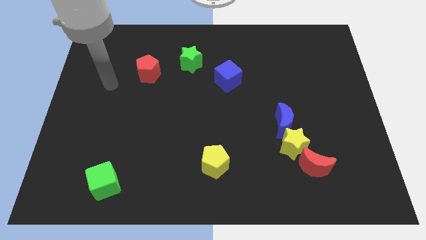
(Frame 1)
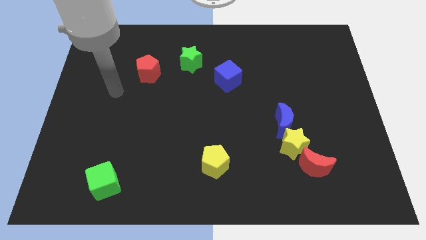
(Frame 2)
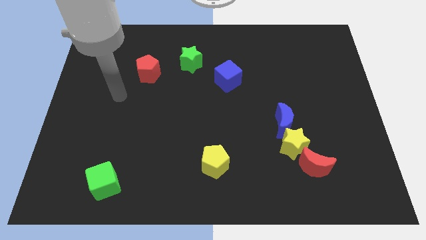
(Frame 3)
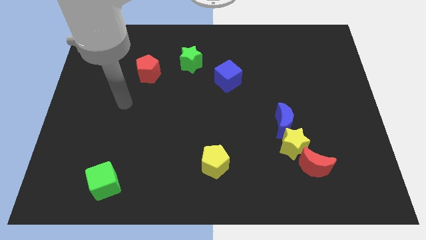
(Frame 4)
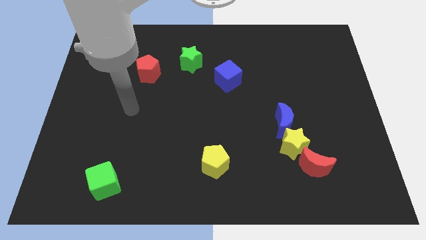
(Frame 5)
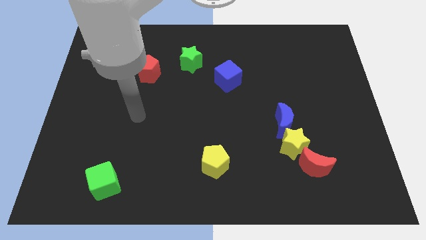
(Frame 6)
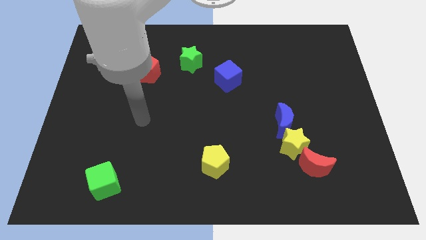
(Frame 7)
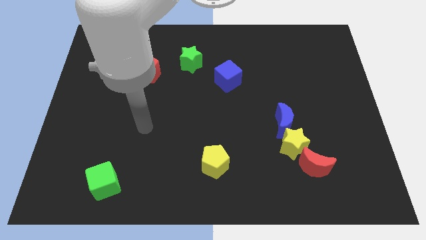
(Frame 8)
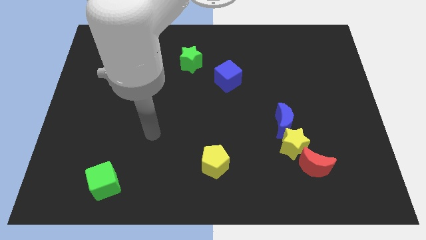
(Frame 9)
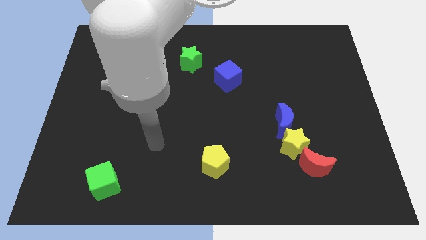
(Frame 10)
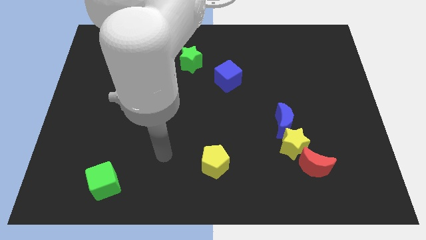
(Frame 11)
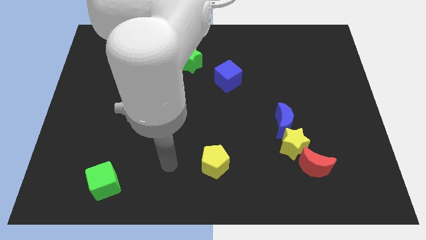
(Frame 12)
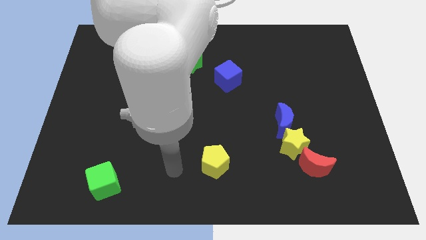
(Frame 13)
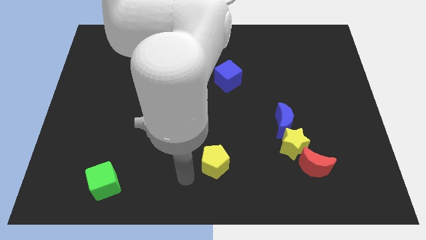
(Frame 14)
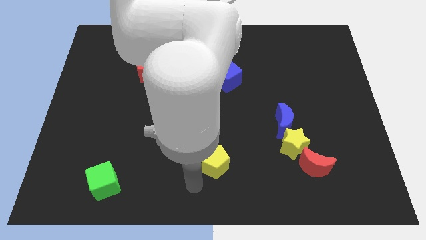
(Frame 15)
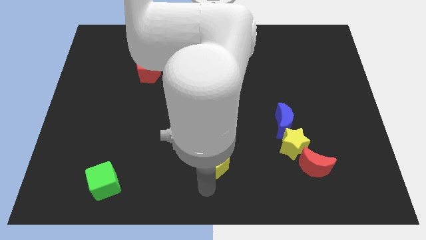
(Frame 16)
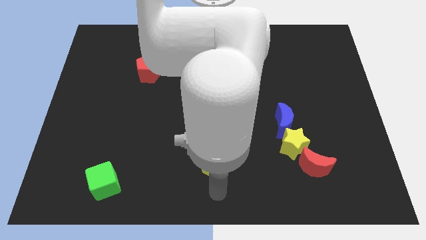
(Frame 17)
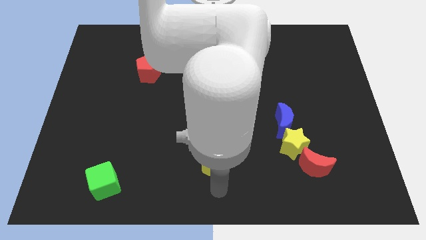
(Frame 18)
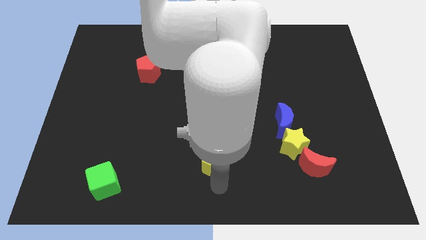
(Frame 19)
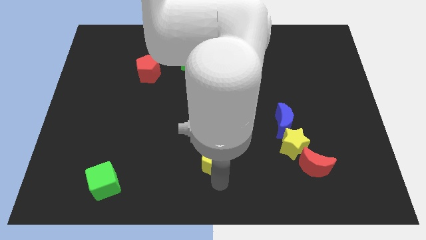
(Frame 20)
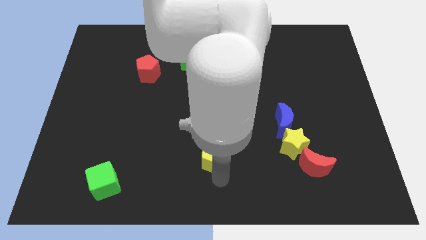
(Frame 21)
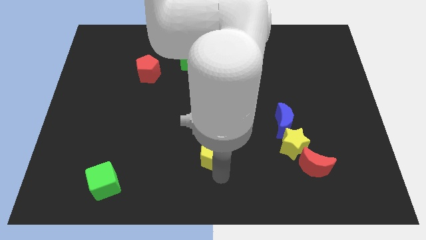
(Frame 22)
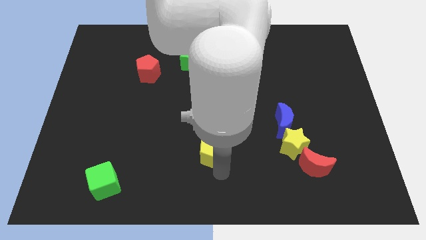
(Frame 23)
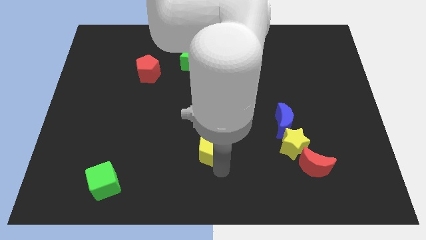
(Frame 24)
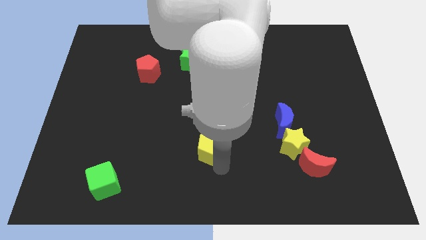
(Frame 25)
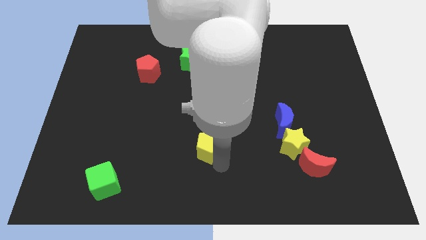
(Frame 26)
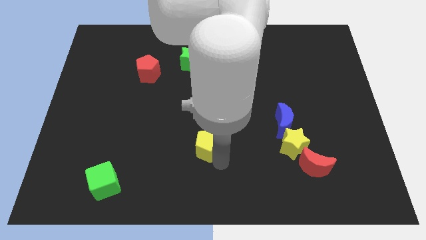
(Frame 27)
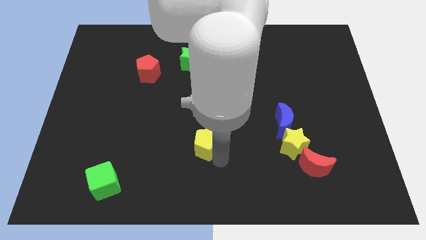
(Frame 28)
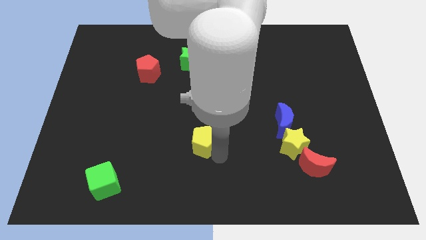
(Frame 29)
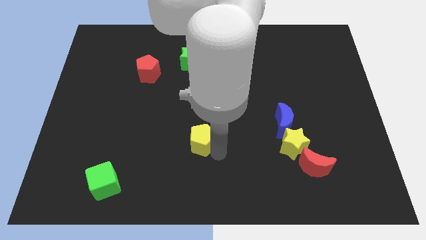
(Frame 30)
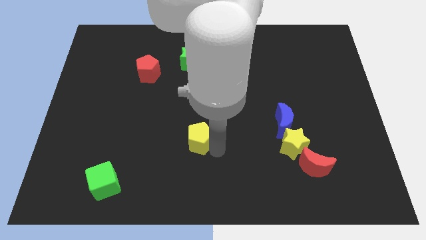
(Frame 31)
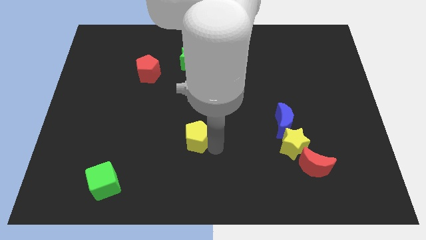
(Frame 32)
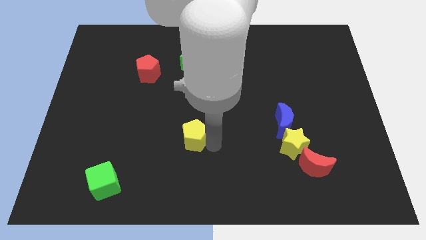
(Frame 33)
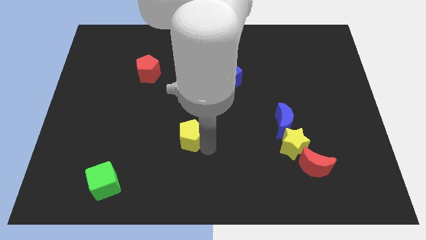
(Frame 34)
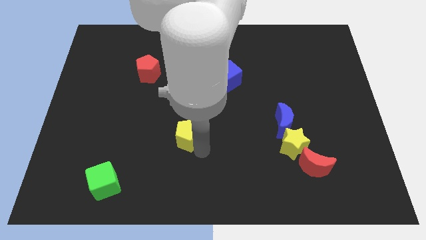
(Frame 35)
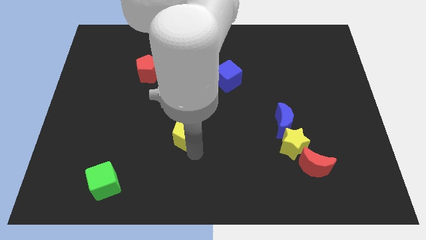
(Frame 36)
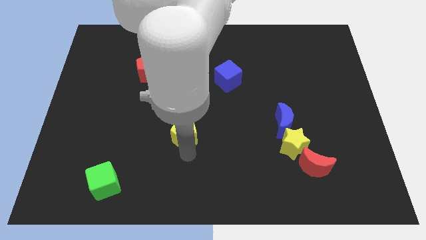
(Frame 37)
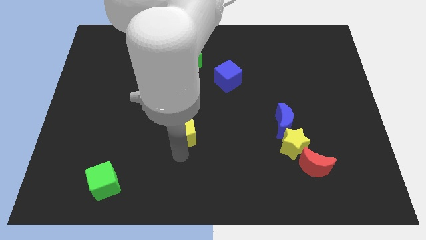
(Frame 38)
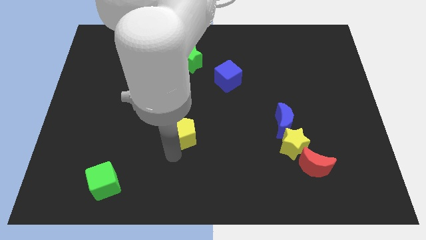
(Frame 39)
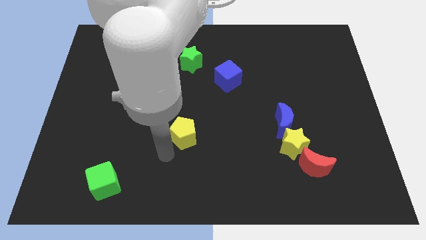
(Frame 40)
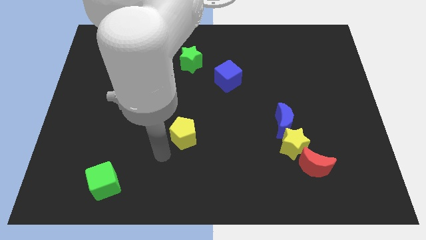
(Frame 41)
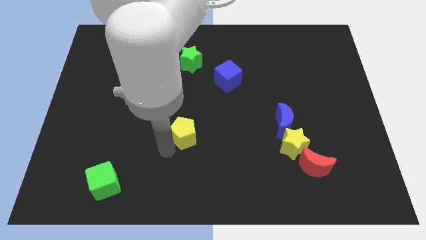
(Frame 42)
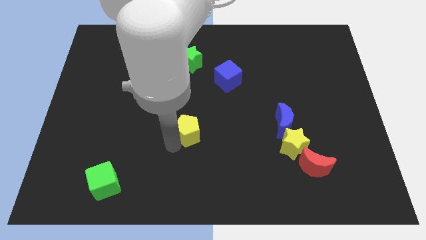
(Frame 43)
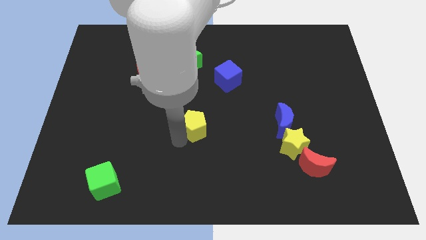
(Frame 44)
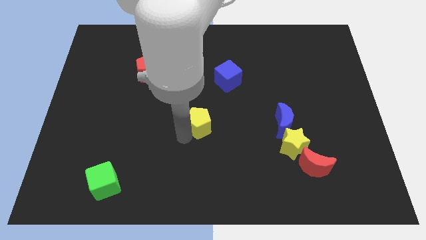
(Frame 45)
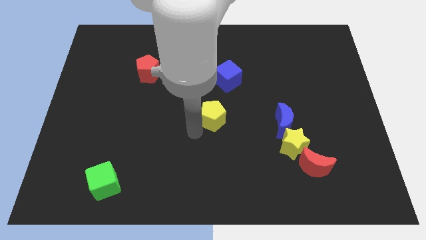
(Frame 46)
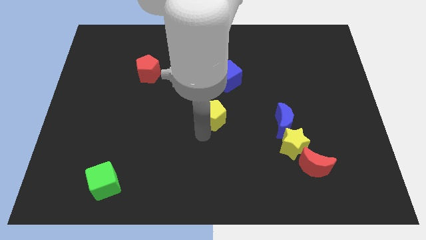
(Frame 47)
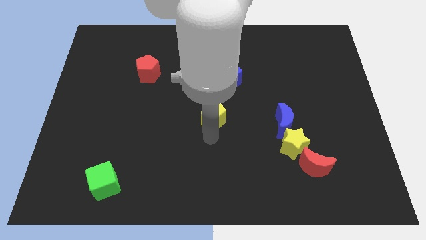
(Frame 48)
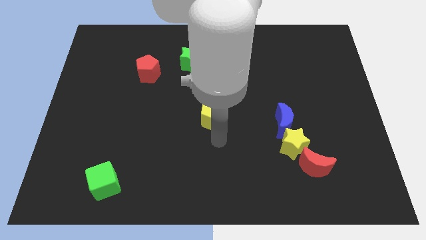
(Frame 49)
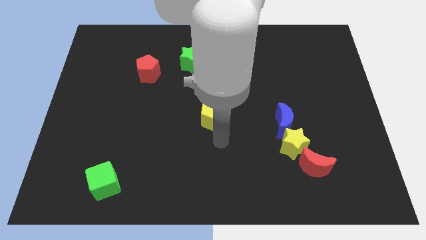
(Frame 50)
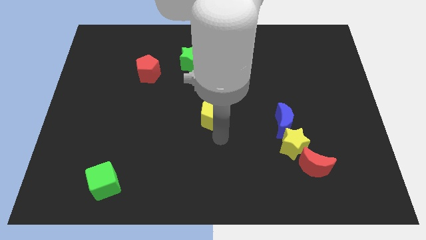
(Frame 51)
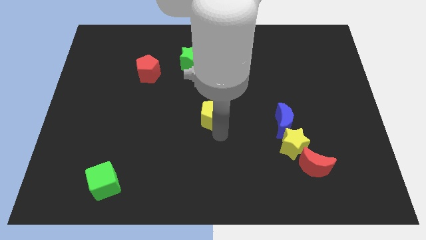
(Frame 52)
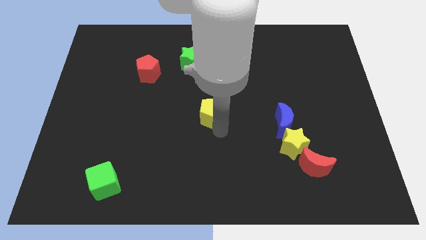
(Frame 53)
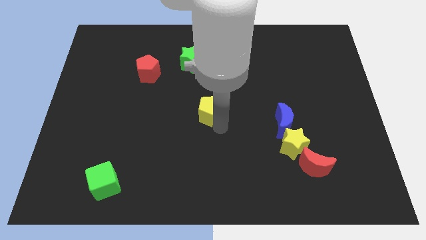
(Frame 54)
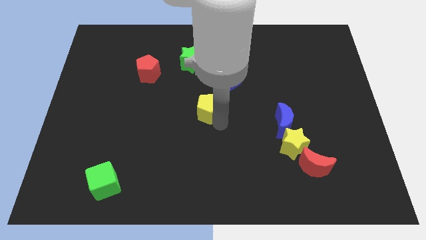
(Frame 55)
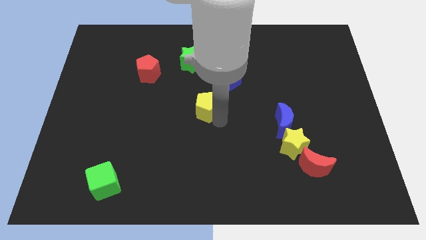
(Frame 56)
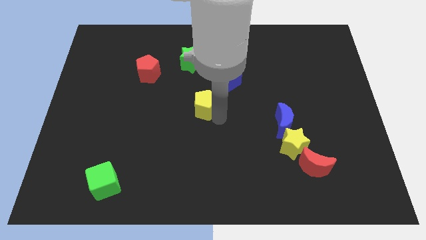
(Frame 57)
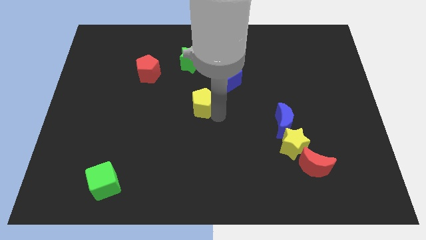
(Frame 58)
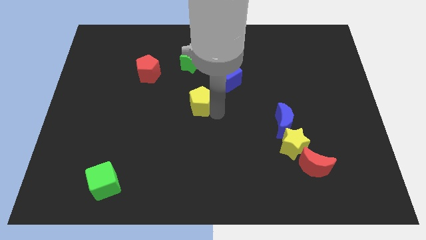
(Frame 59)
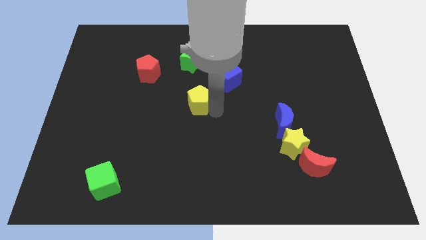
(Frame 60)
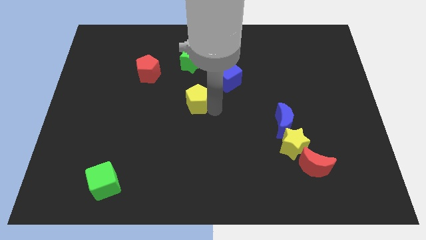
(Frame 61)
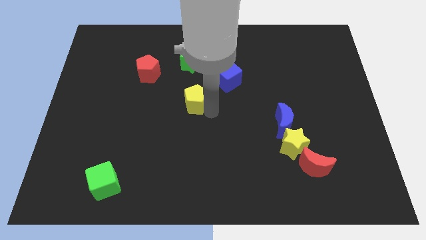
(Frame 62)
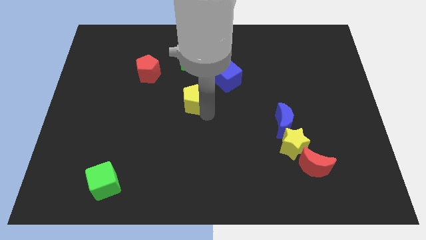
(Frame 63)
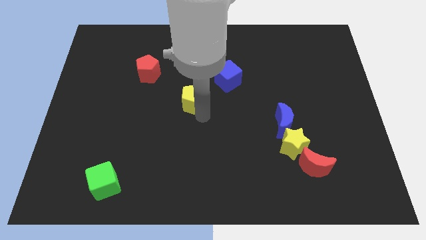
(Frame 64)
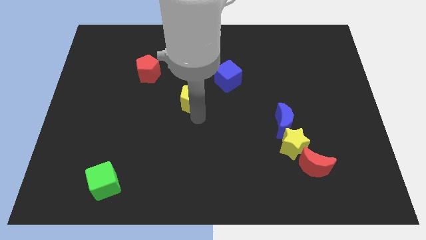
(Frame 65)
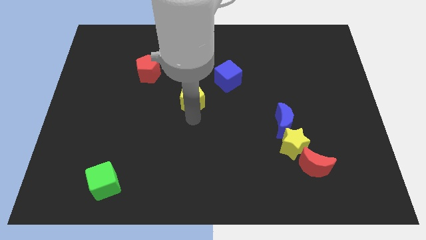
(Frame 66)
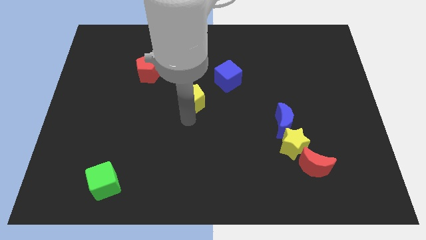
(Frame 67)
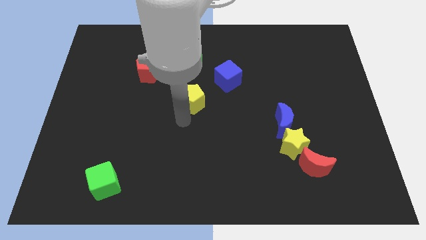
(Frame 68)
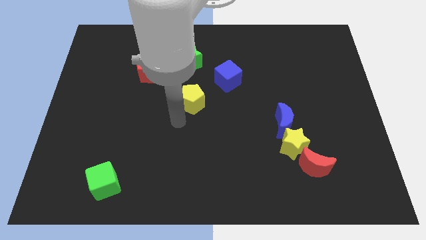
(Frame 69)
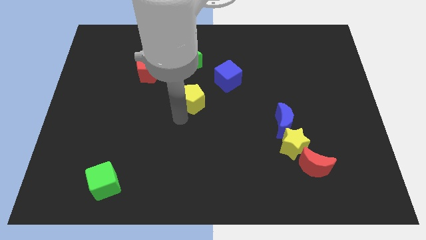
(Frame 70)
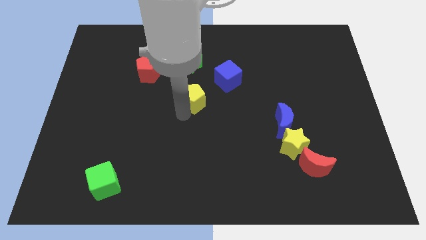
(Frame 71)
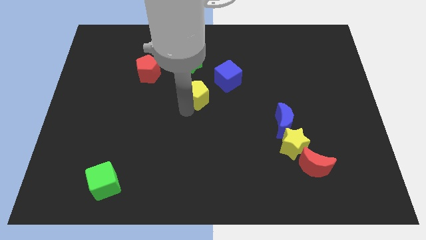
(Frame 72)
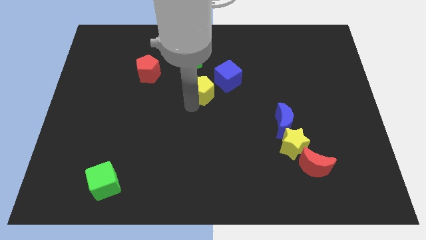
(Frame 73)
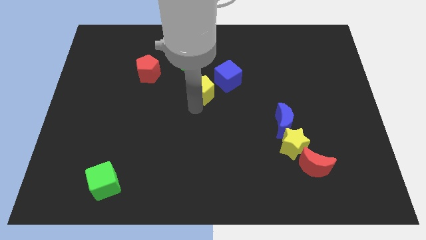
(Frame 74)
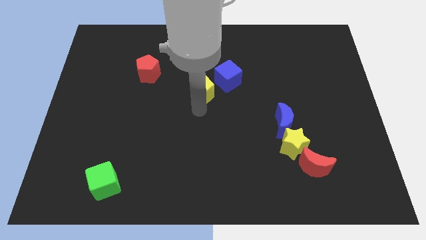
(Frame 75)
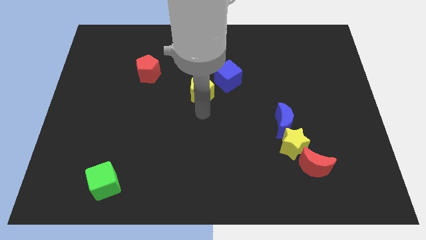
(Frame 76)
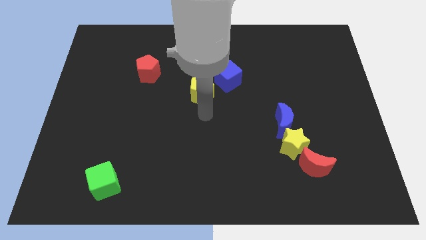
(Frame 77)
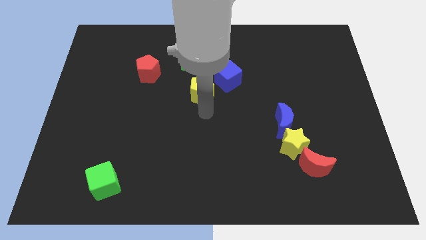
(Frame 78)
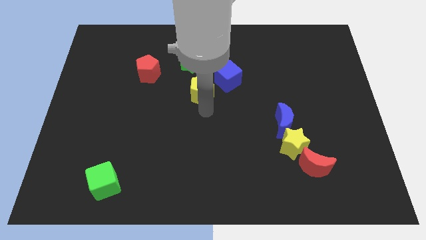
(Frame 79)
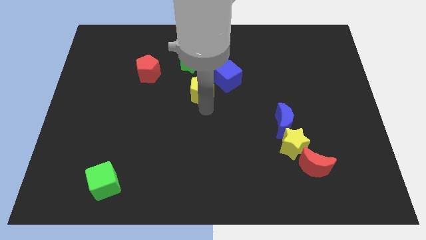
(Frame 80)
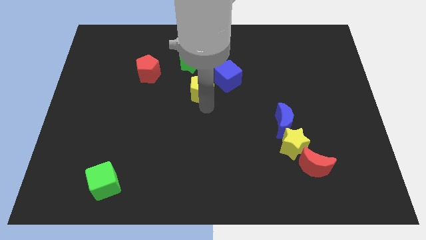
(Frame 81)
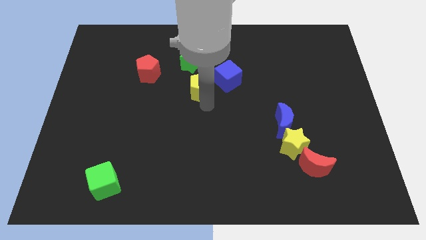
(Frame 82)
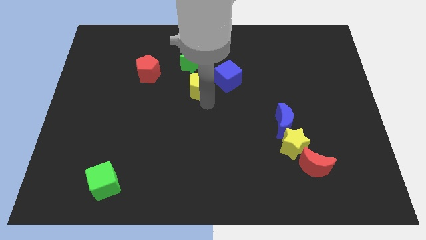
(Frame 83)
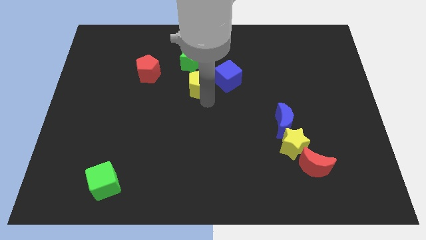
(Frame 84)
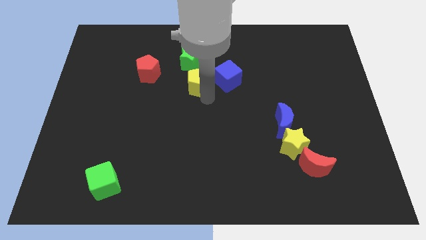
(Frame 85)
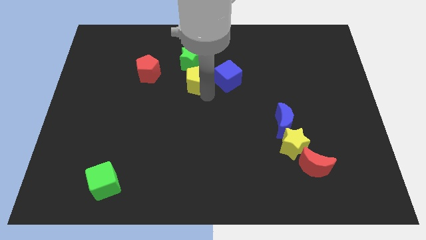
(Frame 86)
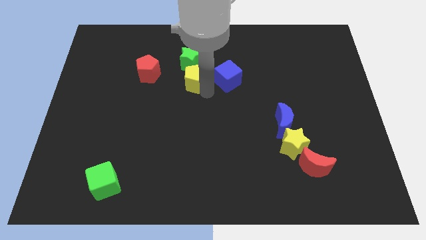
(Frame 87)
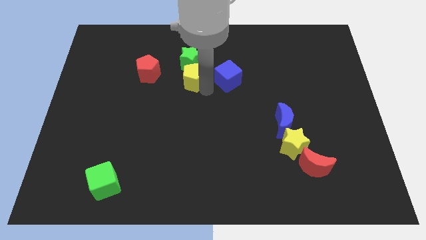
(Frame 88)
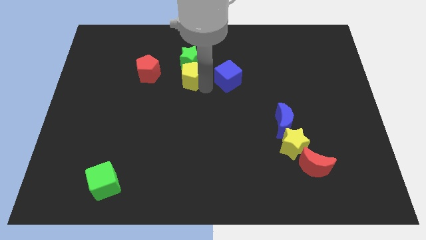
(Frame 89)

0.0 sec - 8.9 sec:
put the yellow pentagon to the green star
